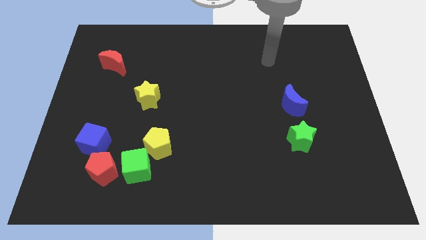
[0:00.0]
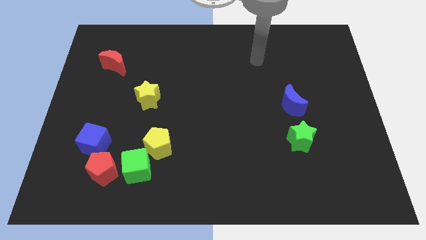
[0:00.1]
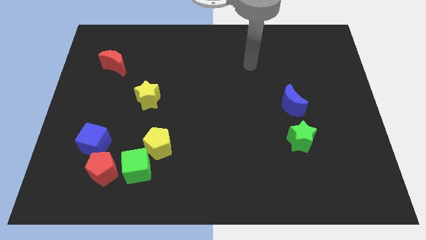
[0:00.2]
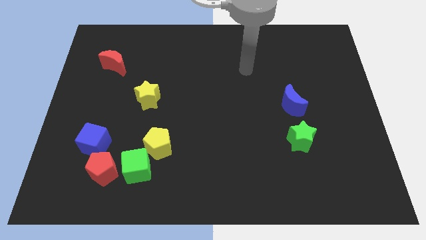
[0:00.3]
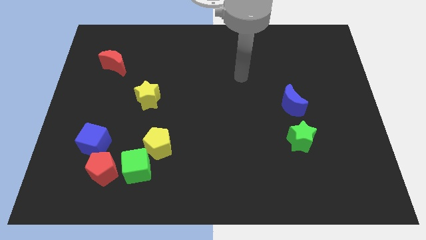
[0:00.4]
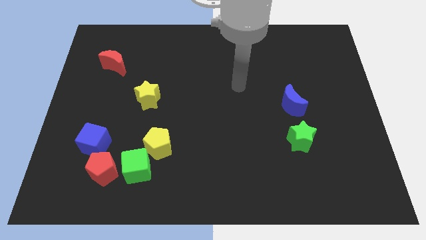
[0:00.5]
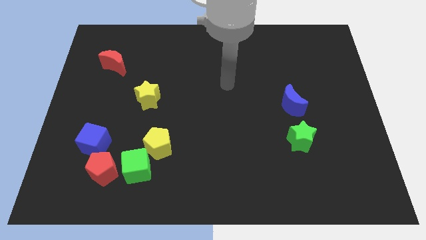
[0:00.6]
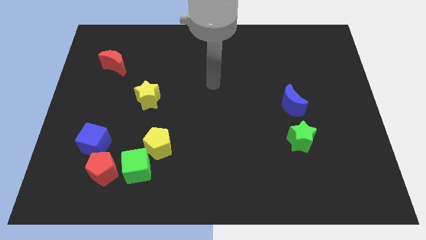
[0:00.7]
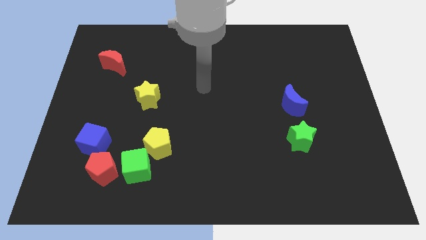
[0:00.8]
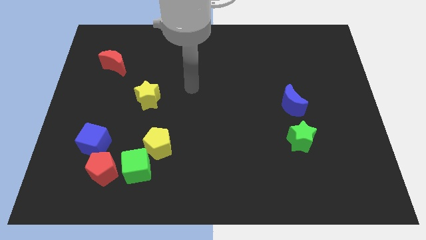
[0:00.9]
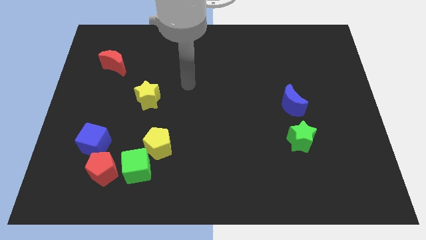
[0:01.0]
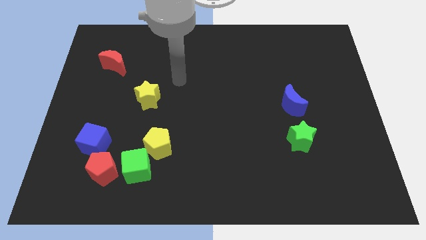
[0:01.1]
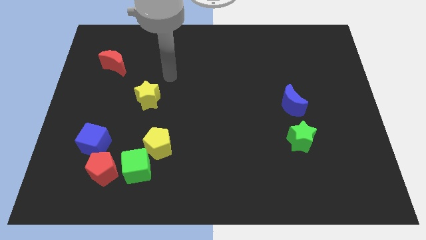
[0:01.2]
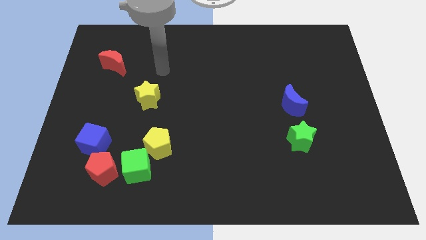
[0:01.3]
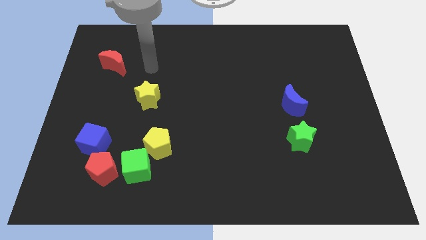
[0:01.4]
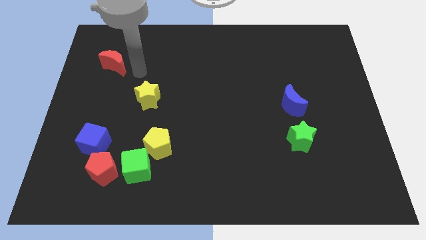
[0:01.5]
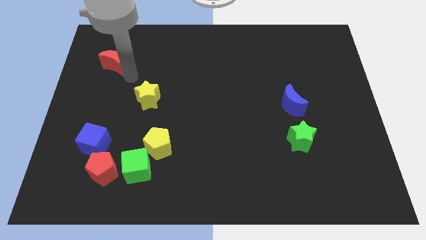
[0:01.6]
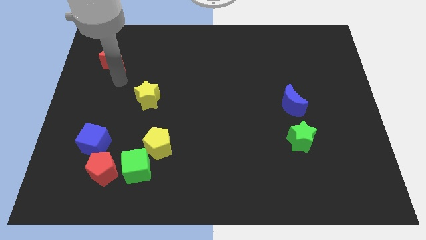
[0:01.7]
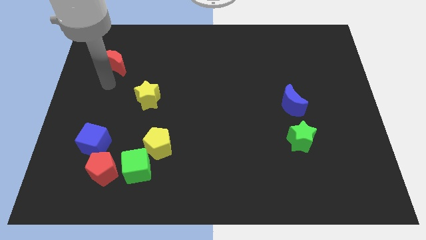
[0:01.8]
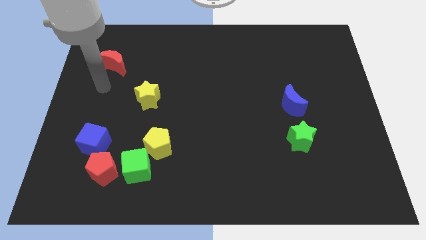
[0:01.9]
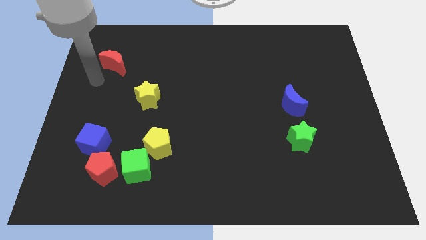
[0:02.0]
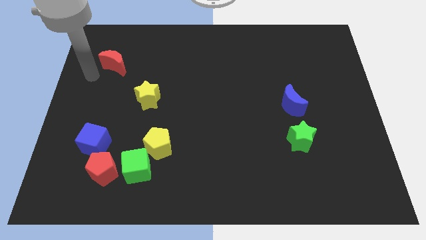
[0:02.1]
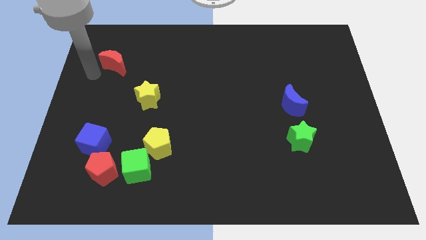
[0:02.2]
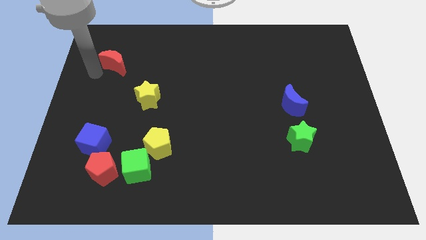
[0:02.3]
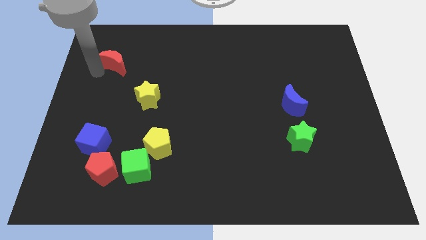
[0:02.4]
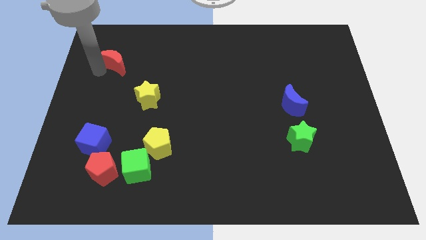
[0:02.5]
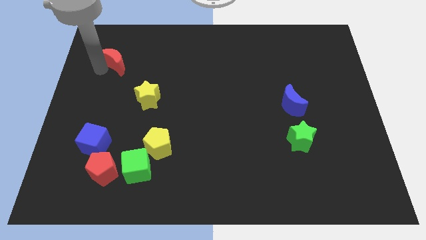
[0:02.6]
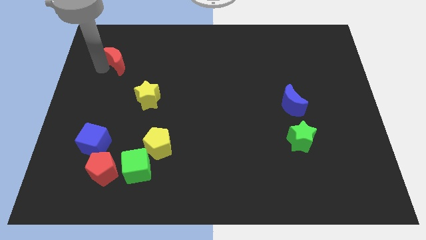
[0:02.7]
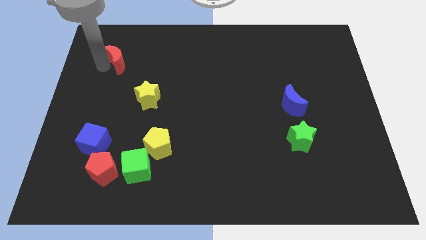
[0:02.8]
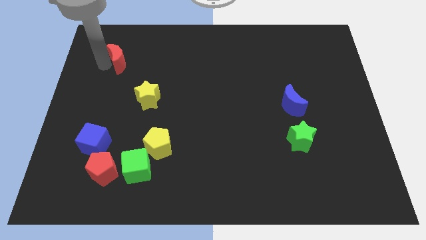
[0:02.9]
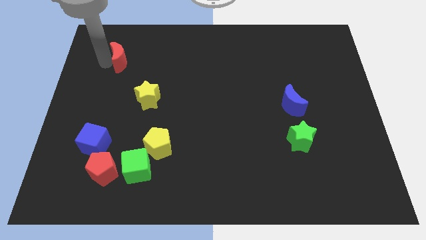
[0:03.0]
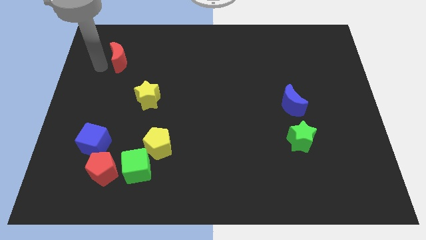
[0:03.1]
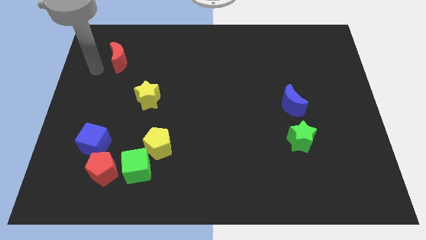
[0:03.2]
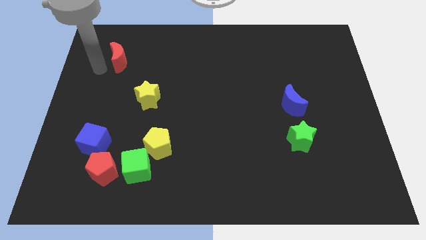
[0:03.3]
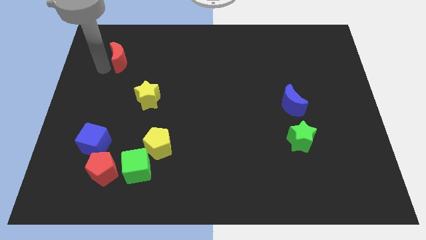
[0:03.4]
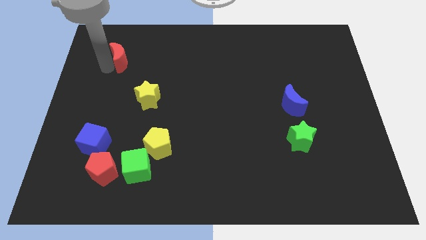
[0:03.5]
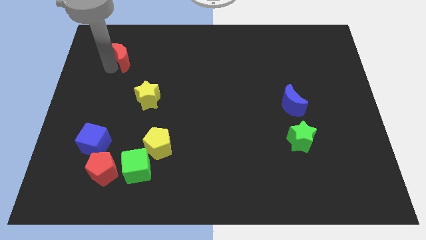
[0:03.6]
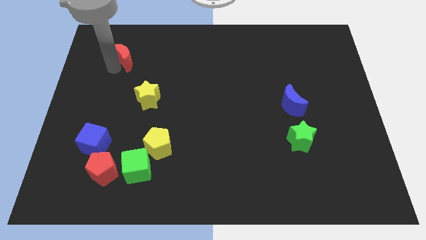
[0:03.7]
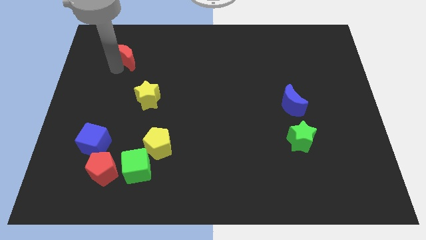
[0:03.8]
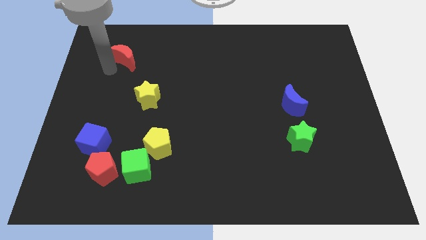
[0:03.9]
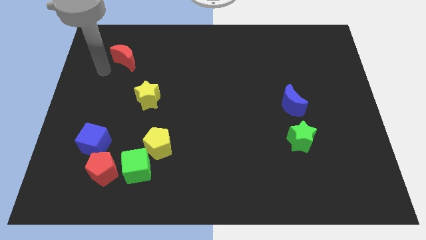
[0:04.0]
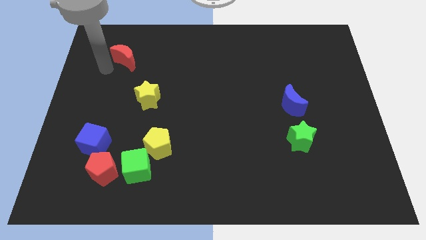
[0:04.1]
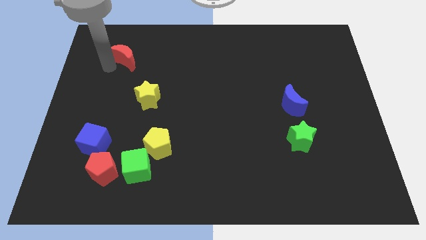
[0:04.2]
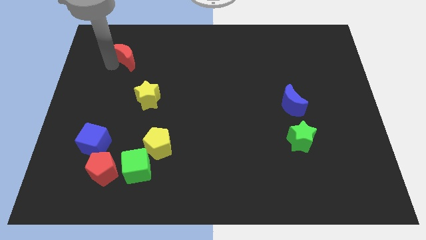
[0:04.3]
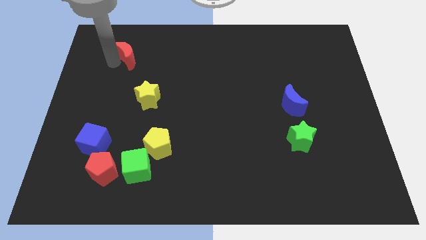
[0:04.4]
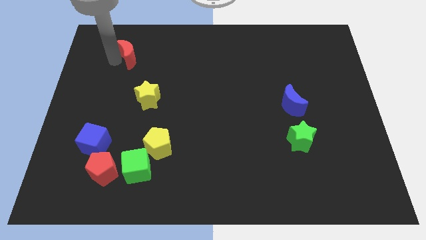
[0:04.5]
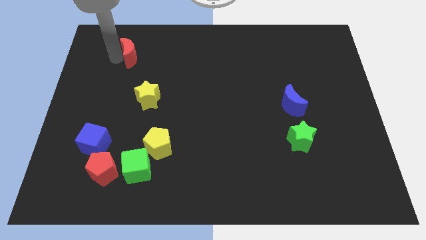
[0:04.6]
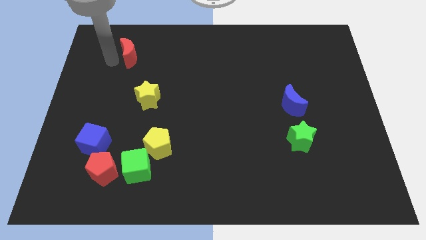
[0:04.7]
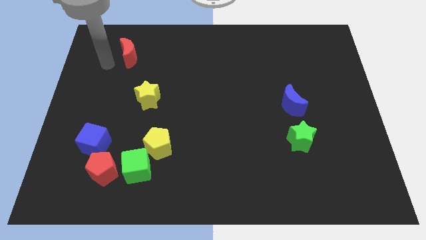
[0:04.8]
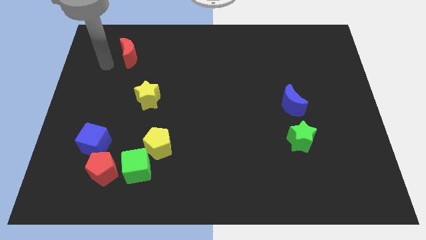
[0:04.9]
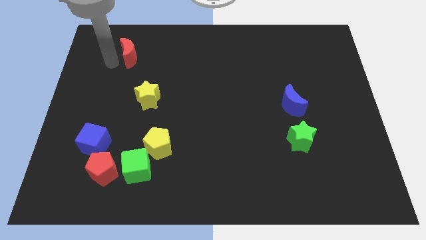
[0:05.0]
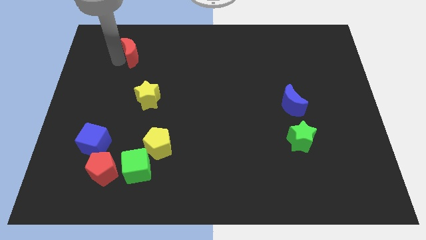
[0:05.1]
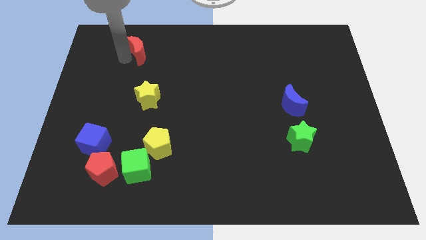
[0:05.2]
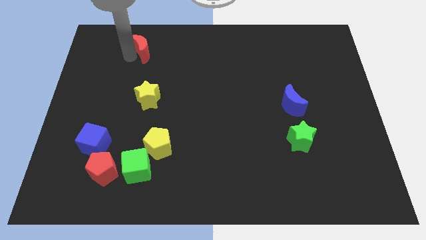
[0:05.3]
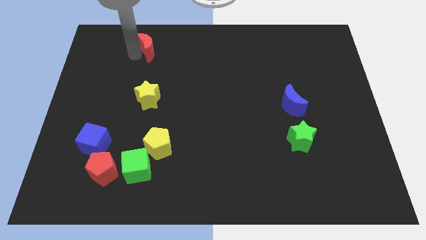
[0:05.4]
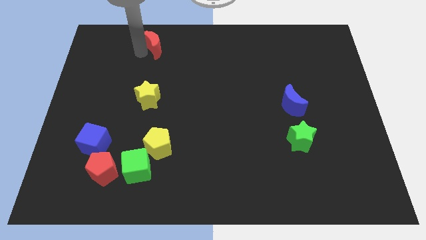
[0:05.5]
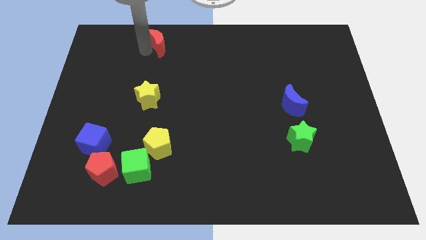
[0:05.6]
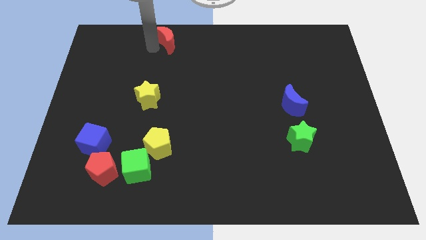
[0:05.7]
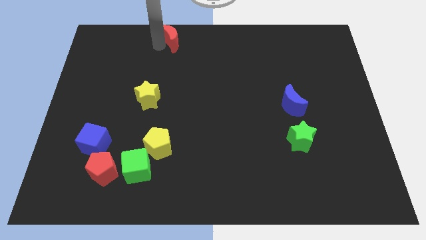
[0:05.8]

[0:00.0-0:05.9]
slide the red moon to the top

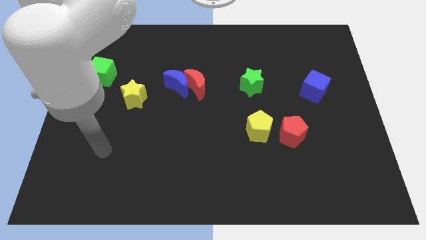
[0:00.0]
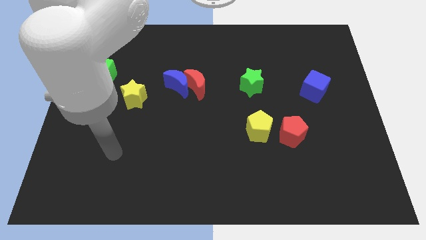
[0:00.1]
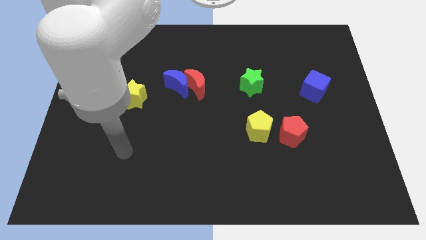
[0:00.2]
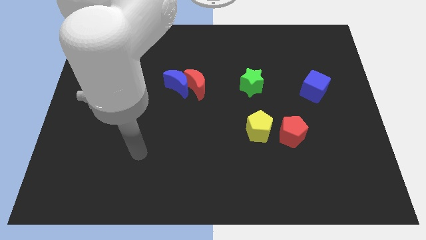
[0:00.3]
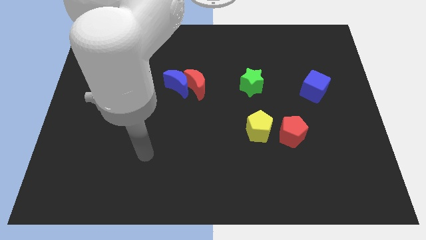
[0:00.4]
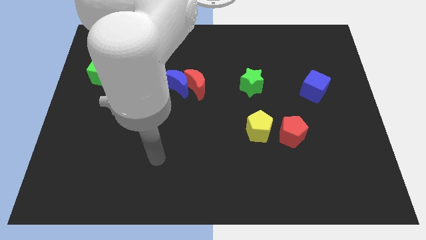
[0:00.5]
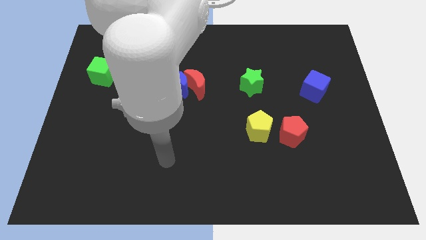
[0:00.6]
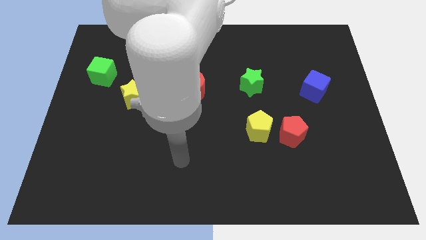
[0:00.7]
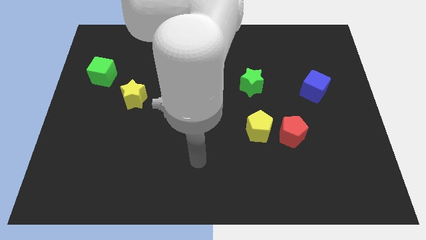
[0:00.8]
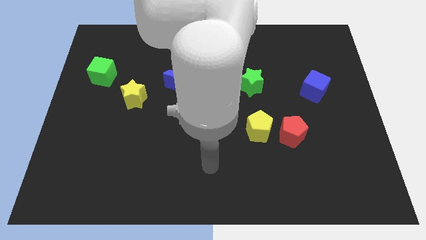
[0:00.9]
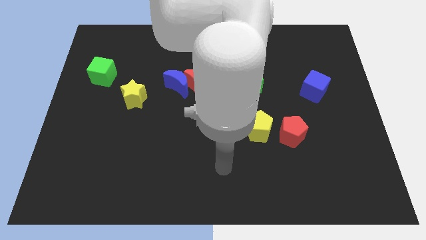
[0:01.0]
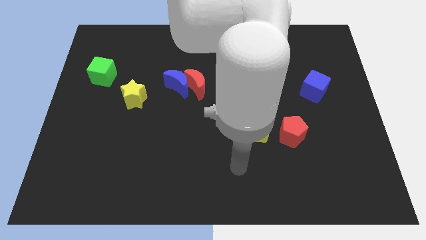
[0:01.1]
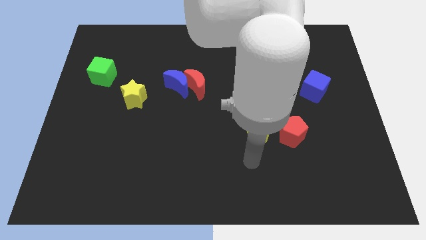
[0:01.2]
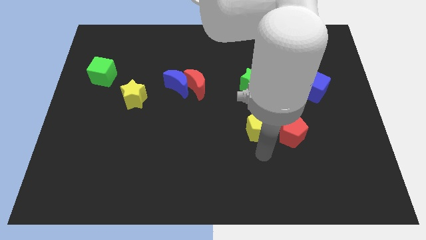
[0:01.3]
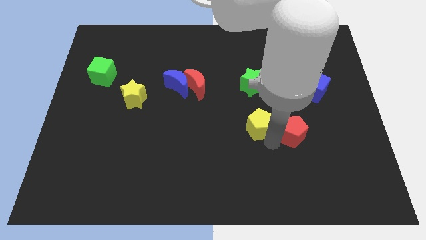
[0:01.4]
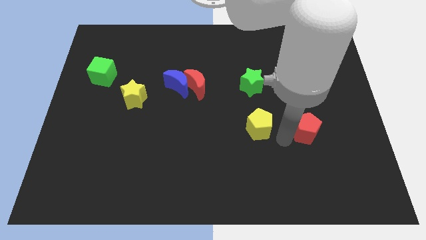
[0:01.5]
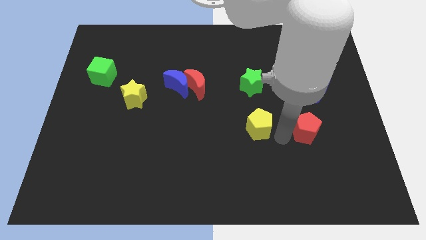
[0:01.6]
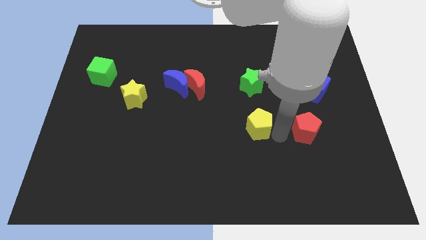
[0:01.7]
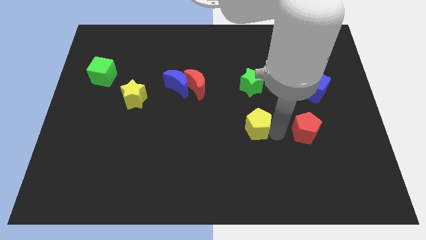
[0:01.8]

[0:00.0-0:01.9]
push the yellow pentagon to the middle of the board
